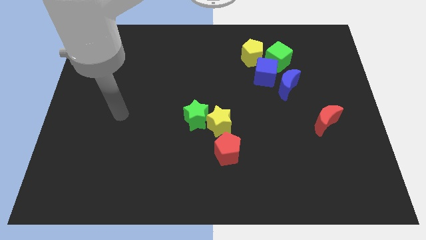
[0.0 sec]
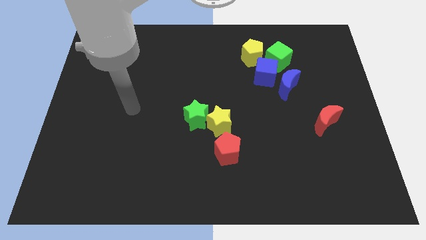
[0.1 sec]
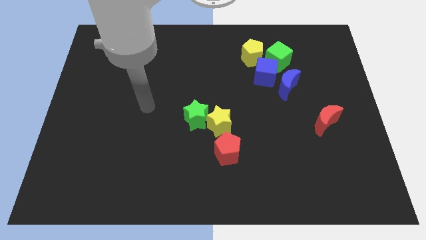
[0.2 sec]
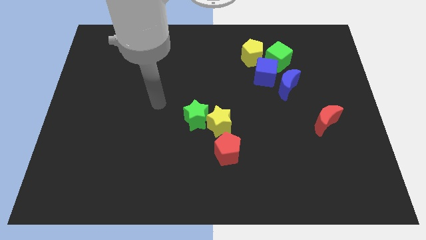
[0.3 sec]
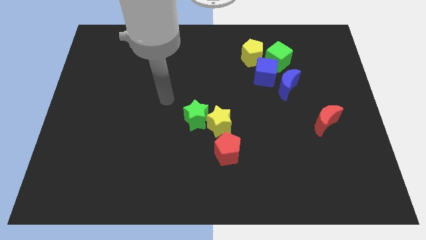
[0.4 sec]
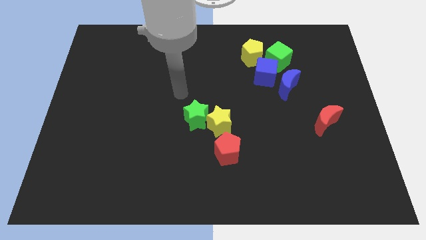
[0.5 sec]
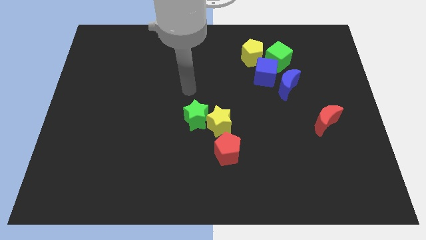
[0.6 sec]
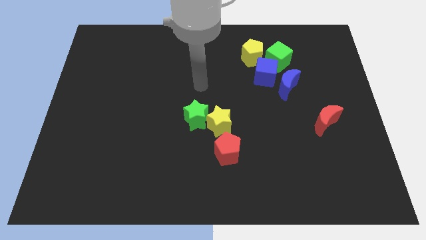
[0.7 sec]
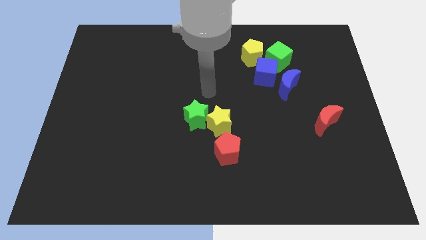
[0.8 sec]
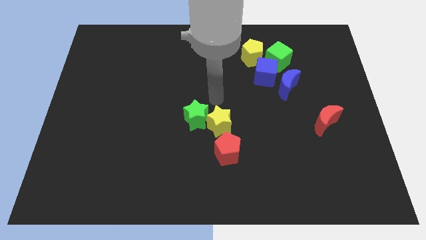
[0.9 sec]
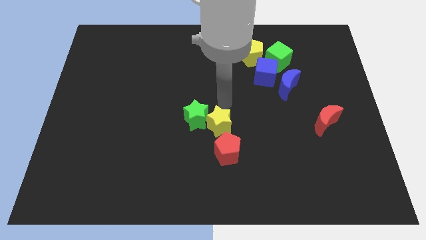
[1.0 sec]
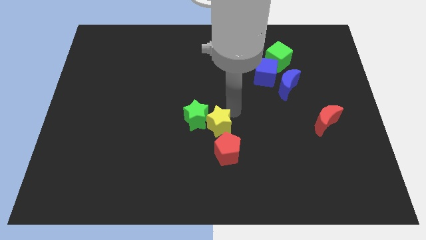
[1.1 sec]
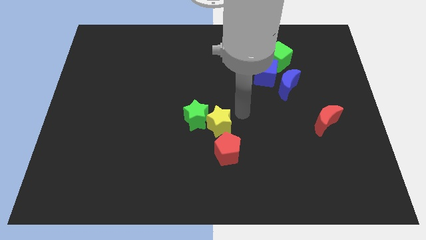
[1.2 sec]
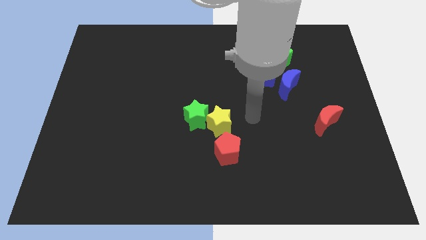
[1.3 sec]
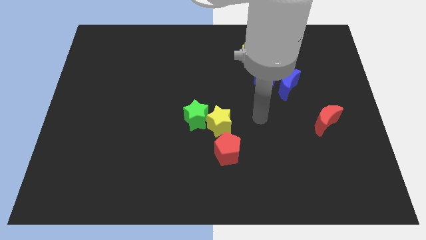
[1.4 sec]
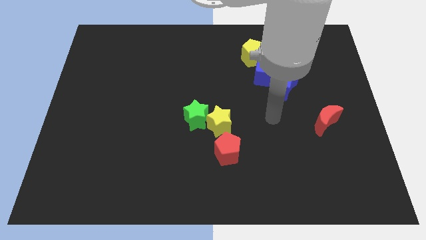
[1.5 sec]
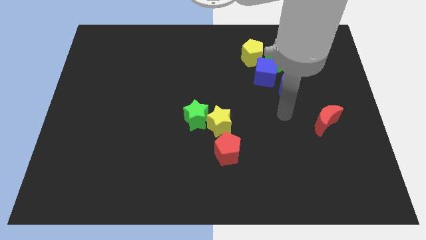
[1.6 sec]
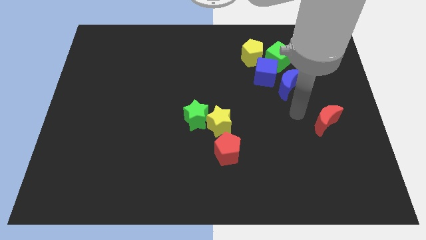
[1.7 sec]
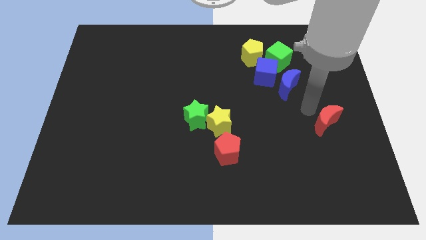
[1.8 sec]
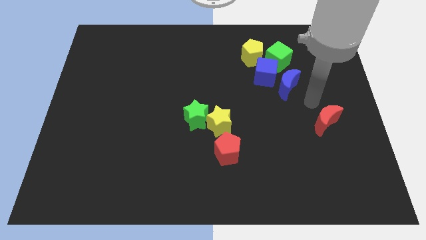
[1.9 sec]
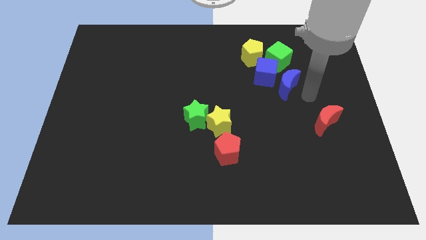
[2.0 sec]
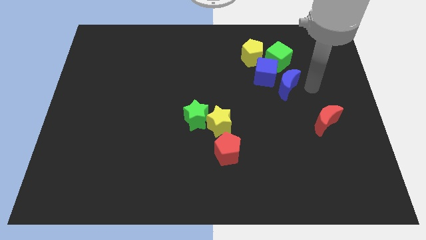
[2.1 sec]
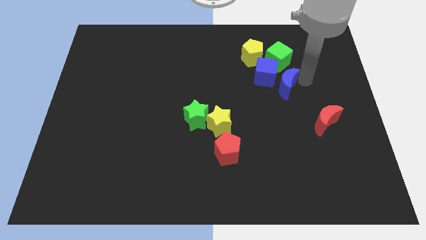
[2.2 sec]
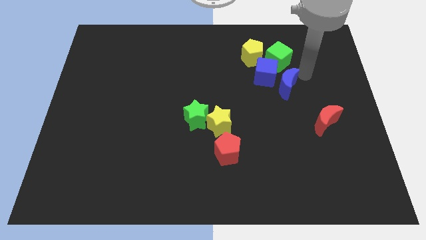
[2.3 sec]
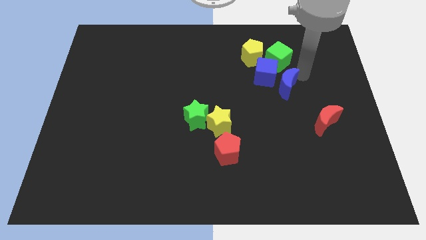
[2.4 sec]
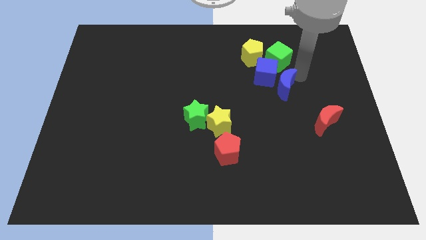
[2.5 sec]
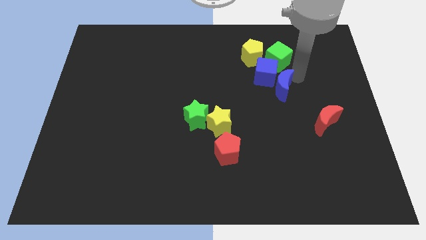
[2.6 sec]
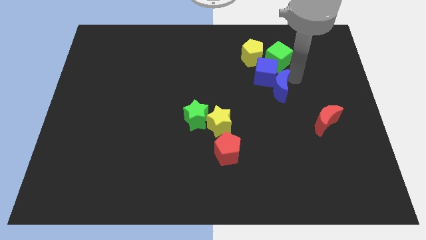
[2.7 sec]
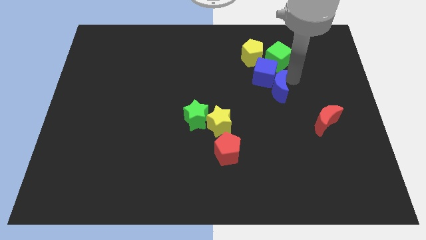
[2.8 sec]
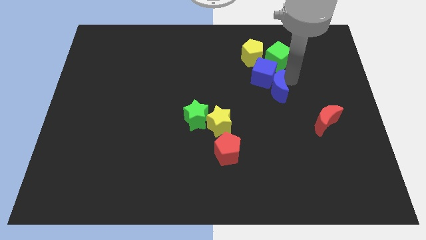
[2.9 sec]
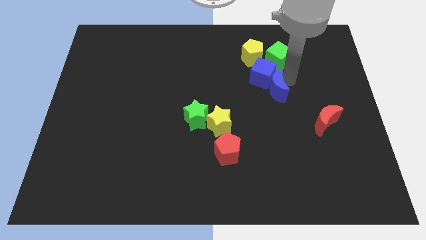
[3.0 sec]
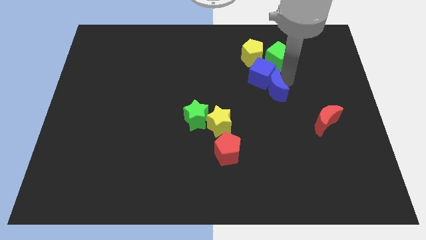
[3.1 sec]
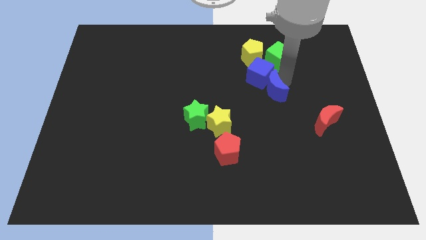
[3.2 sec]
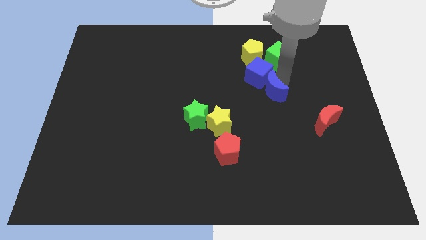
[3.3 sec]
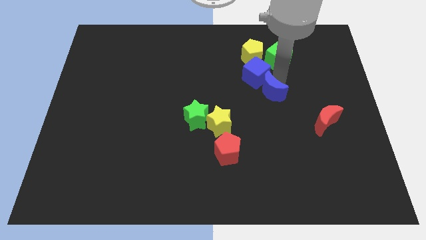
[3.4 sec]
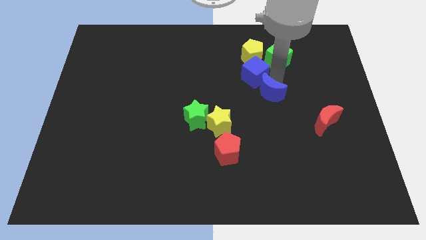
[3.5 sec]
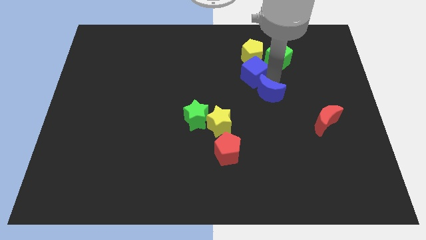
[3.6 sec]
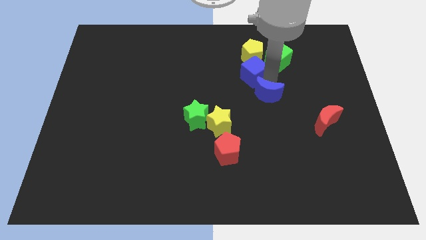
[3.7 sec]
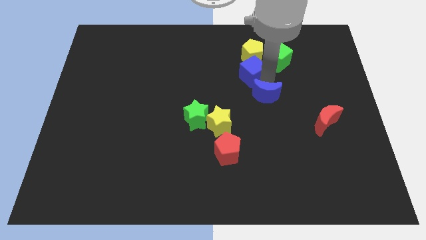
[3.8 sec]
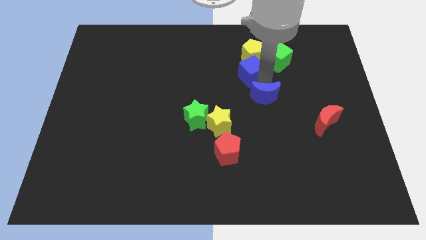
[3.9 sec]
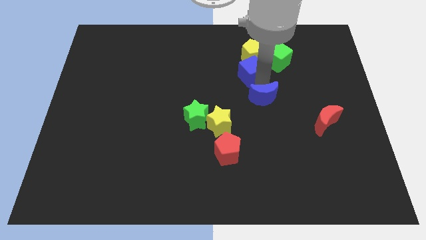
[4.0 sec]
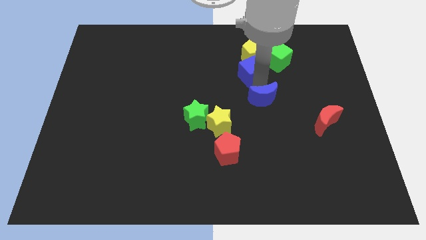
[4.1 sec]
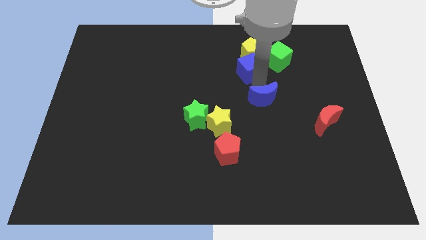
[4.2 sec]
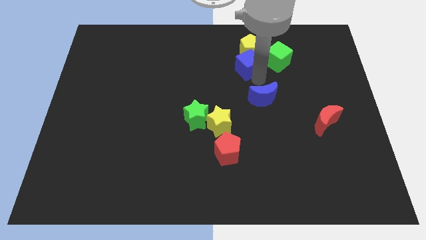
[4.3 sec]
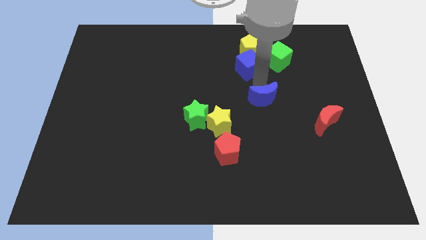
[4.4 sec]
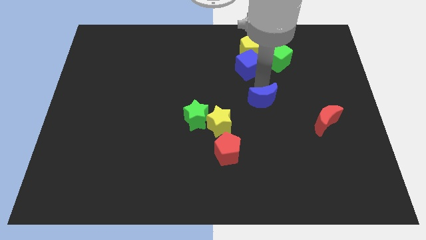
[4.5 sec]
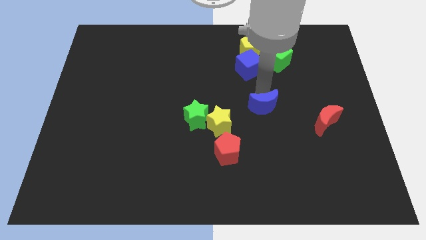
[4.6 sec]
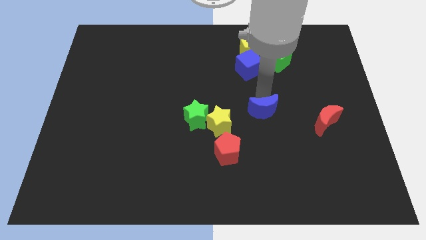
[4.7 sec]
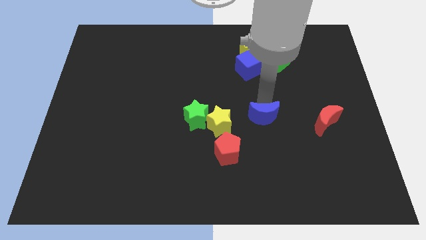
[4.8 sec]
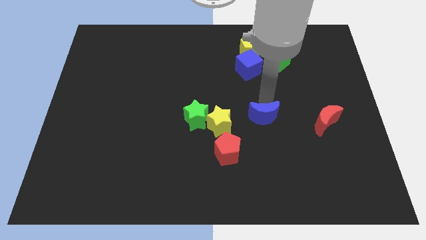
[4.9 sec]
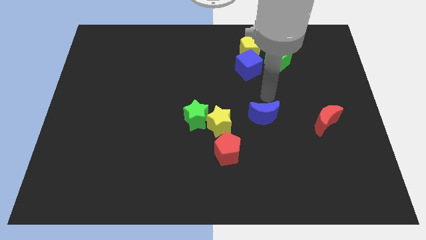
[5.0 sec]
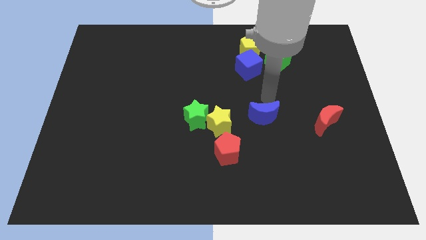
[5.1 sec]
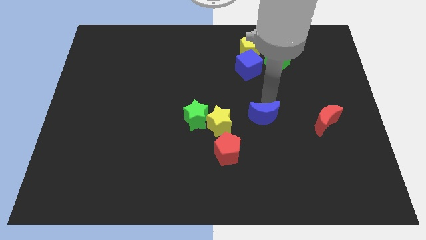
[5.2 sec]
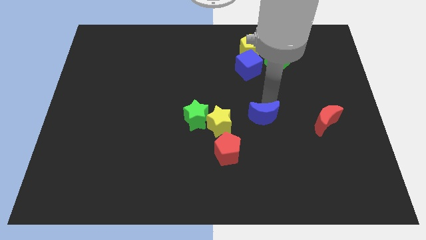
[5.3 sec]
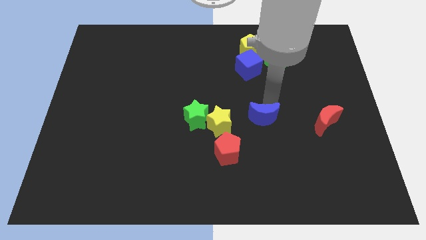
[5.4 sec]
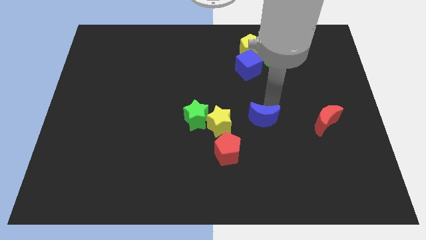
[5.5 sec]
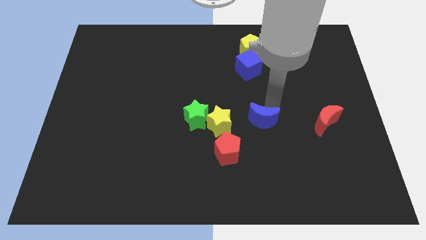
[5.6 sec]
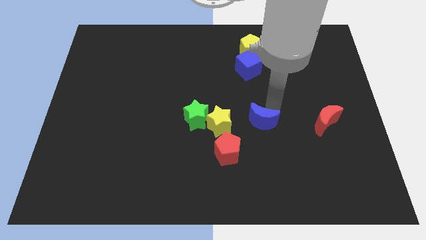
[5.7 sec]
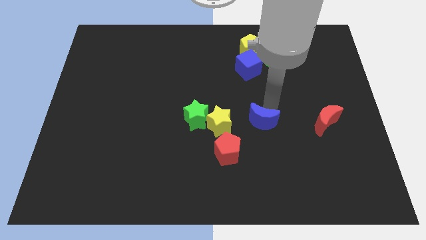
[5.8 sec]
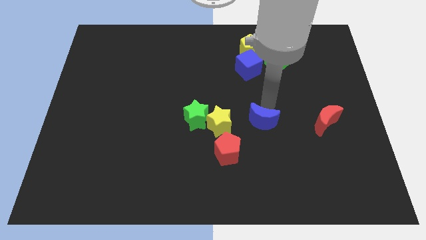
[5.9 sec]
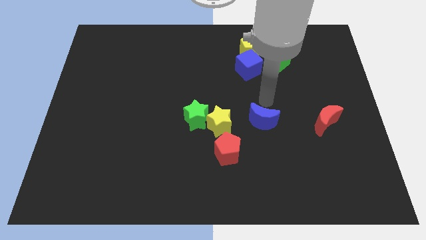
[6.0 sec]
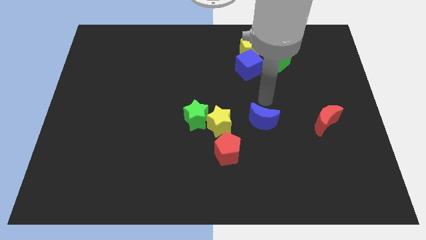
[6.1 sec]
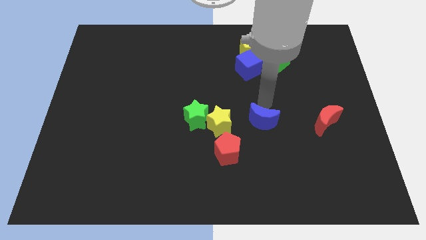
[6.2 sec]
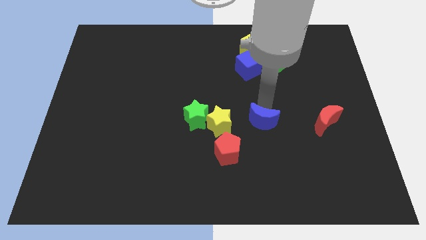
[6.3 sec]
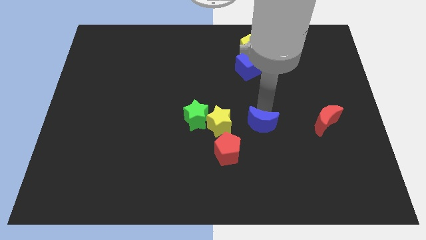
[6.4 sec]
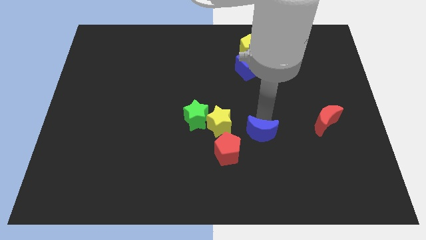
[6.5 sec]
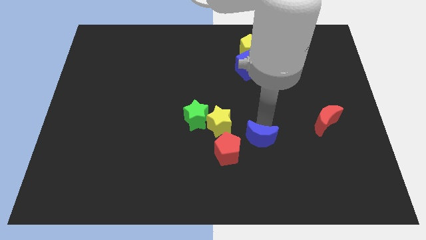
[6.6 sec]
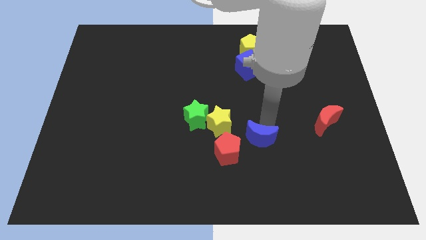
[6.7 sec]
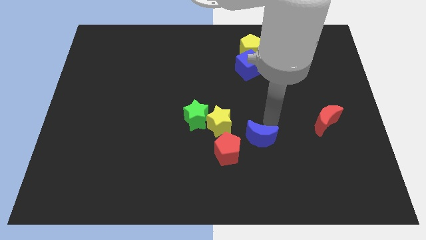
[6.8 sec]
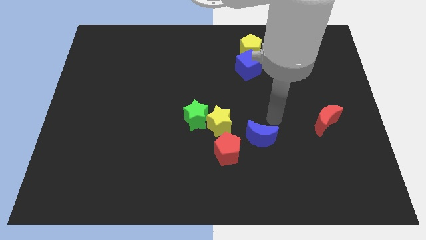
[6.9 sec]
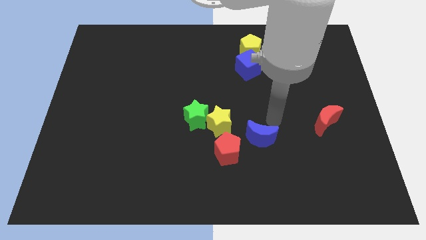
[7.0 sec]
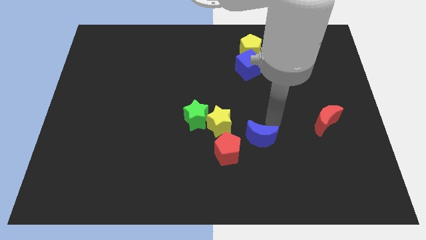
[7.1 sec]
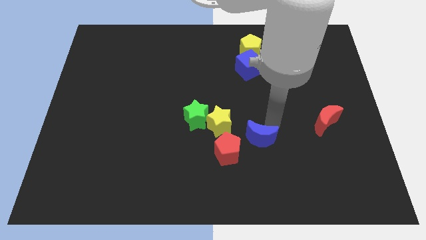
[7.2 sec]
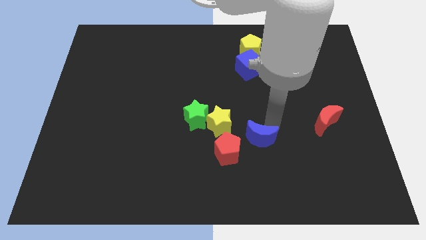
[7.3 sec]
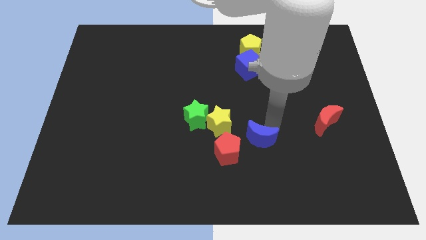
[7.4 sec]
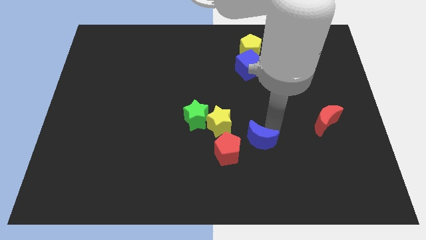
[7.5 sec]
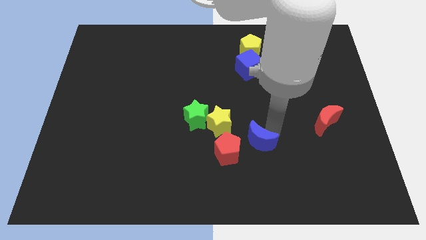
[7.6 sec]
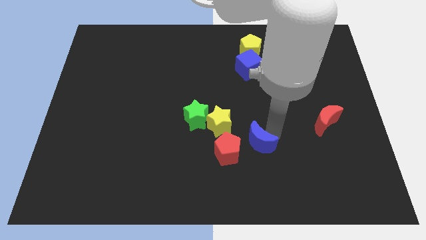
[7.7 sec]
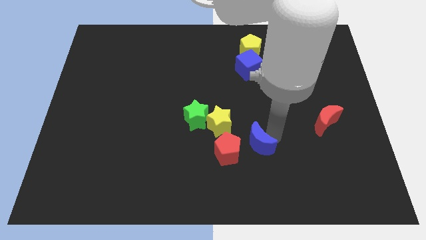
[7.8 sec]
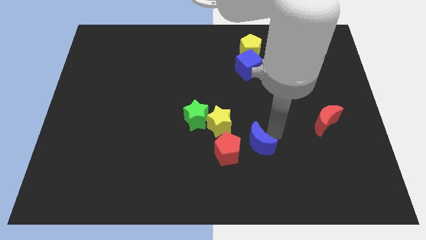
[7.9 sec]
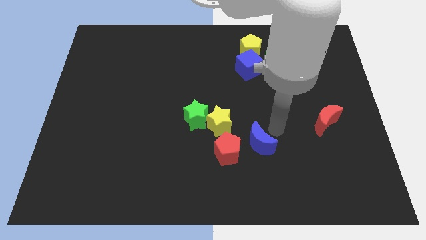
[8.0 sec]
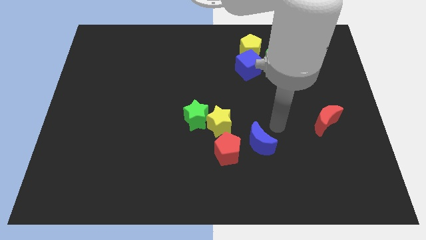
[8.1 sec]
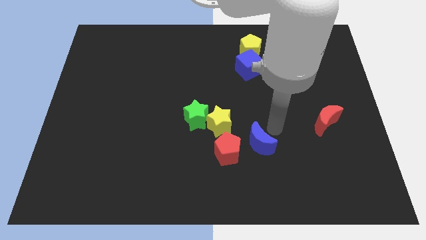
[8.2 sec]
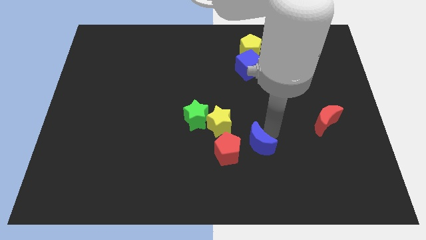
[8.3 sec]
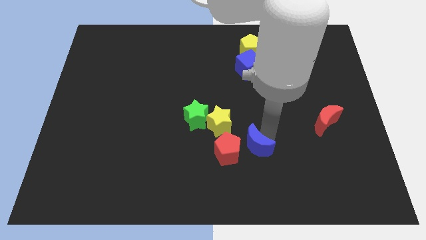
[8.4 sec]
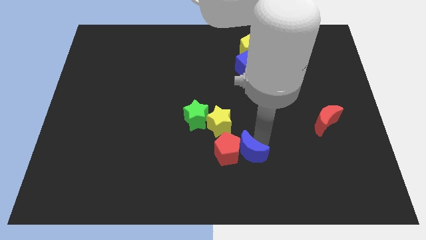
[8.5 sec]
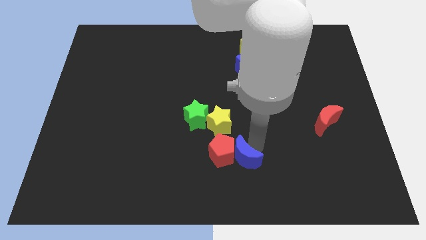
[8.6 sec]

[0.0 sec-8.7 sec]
push the blue moon to the bottom side of the yellow star
